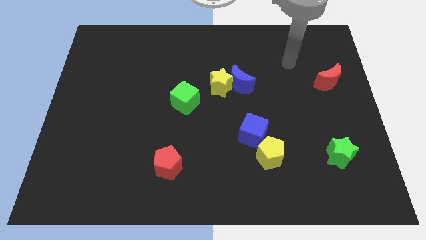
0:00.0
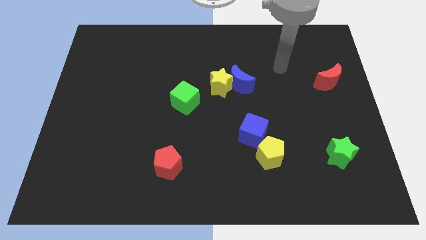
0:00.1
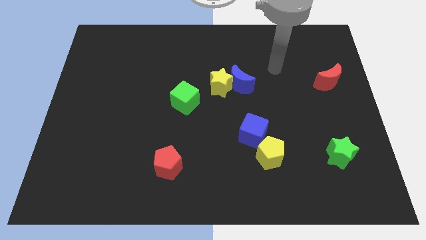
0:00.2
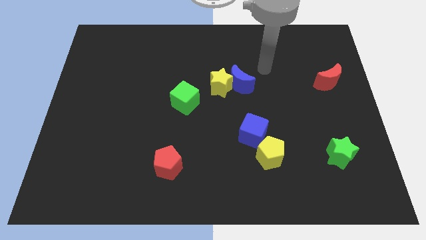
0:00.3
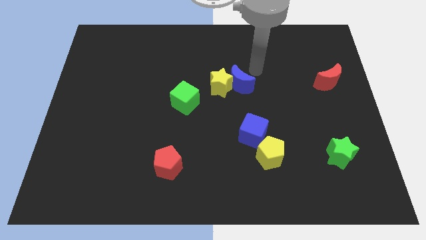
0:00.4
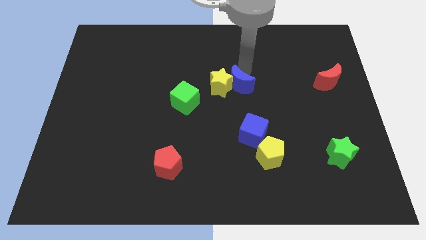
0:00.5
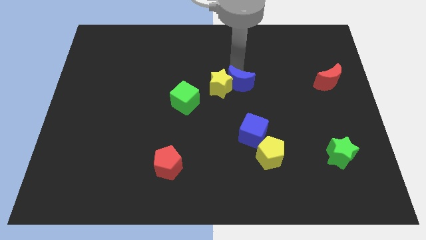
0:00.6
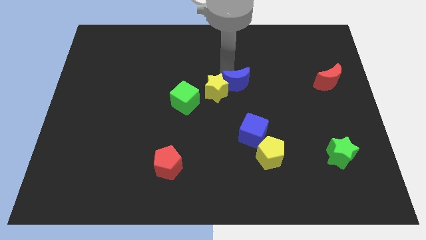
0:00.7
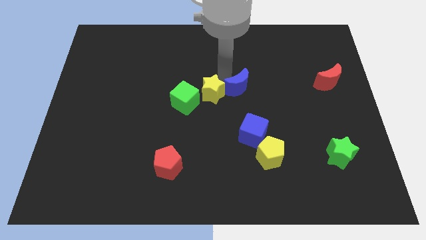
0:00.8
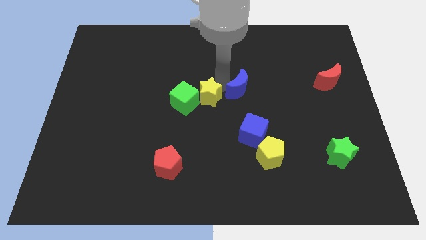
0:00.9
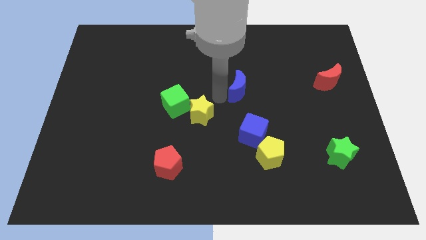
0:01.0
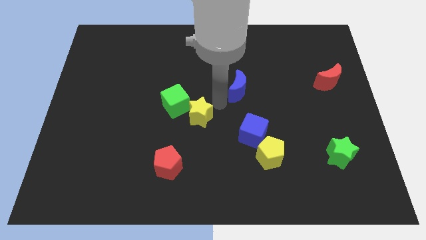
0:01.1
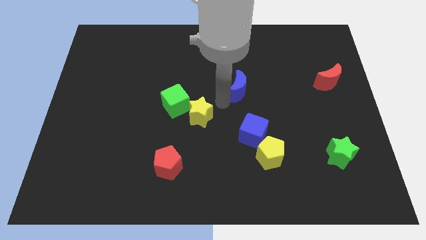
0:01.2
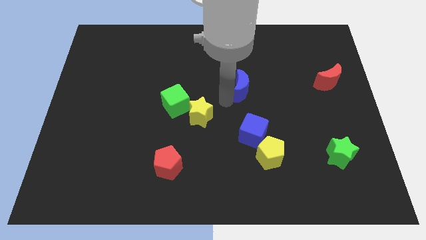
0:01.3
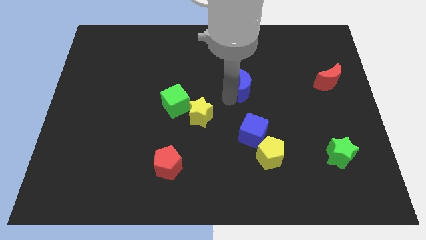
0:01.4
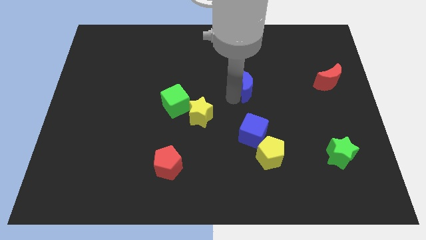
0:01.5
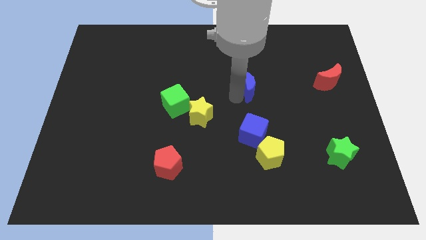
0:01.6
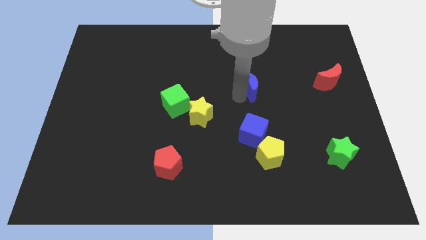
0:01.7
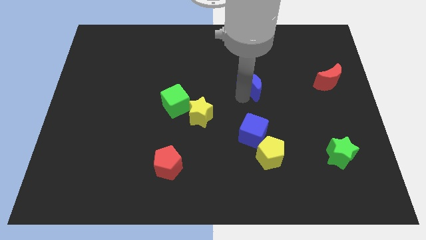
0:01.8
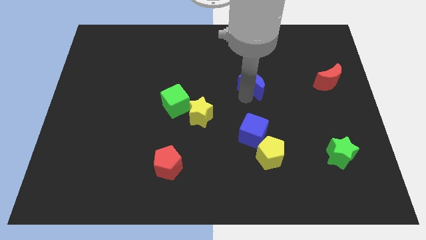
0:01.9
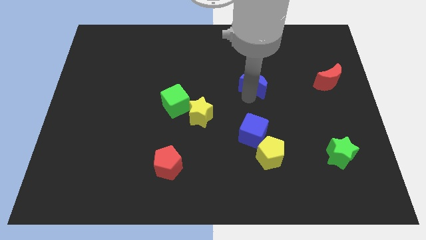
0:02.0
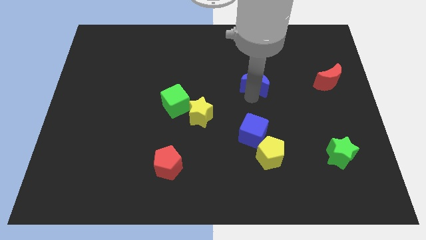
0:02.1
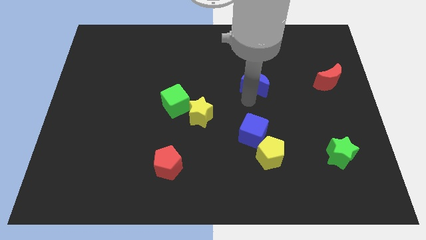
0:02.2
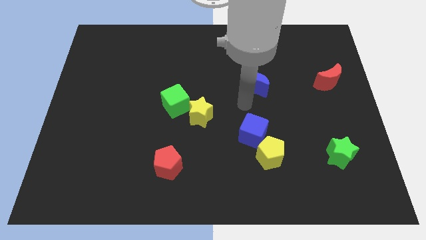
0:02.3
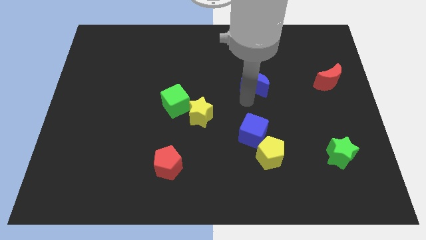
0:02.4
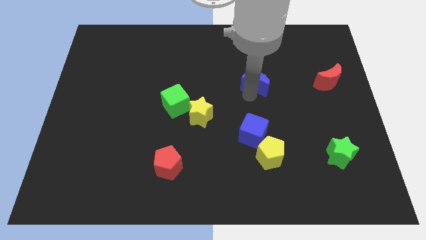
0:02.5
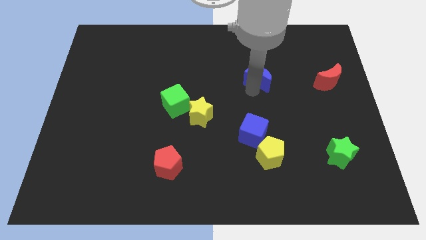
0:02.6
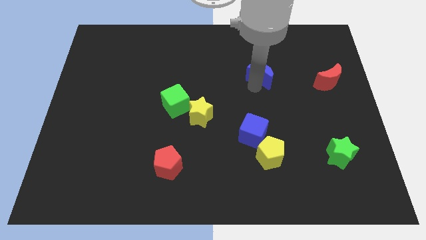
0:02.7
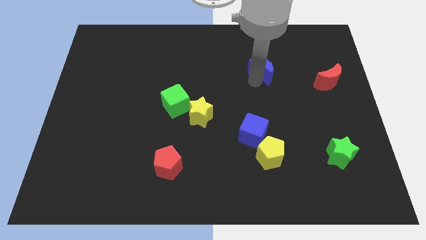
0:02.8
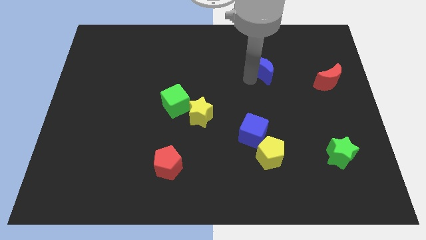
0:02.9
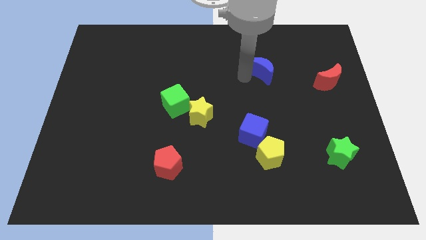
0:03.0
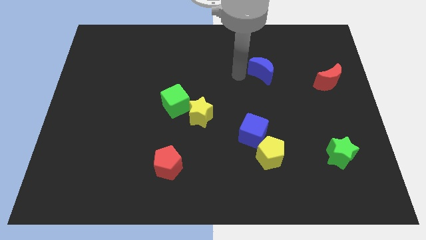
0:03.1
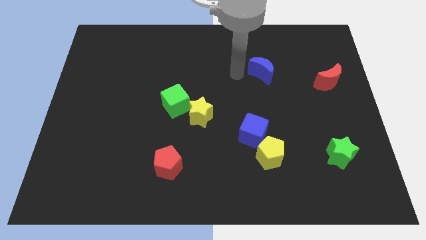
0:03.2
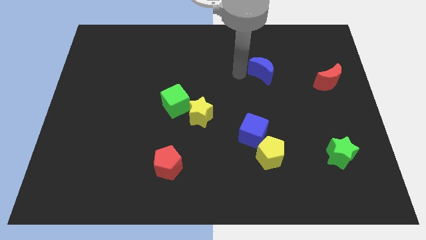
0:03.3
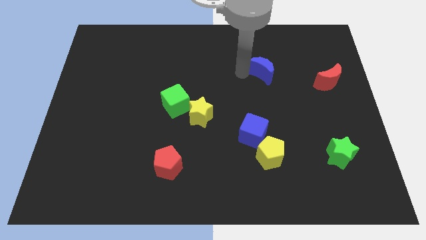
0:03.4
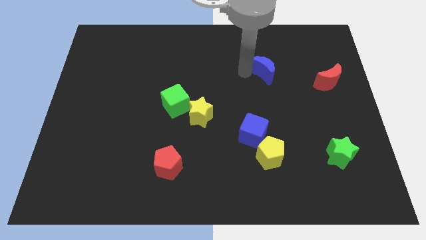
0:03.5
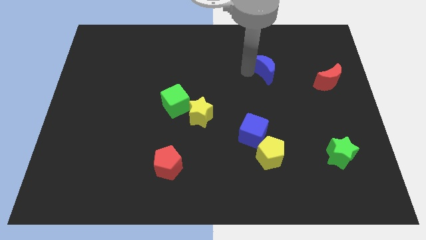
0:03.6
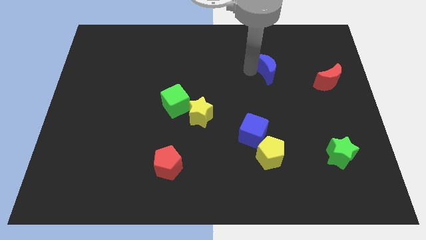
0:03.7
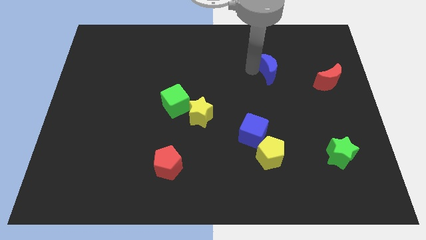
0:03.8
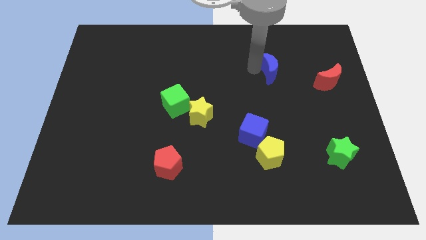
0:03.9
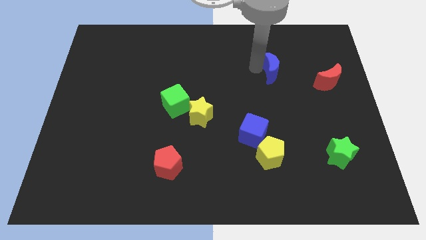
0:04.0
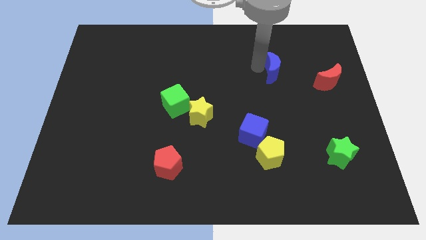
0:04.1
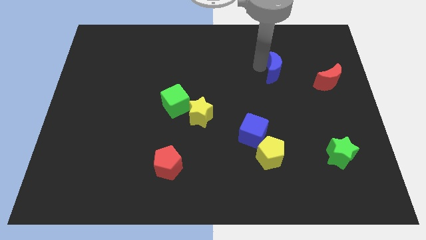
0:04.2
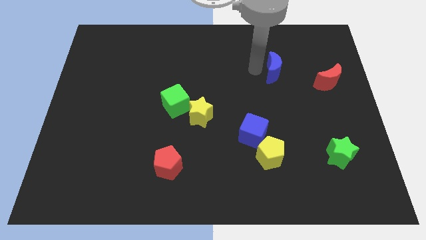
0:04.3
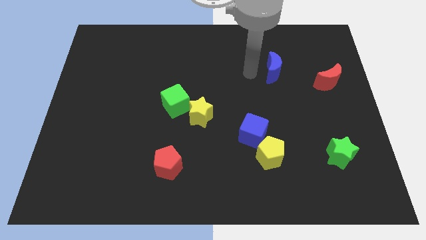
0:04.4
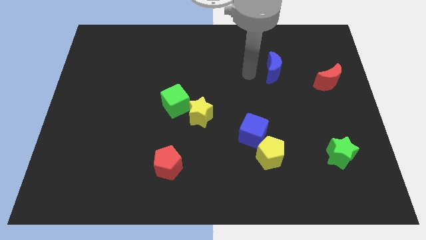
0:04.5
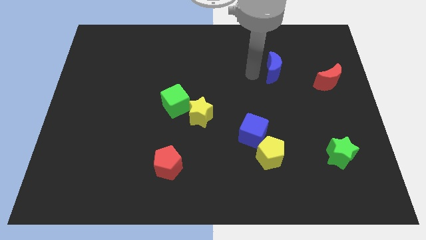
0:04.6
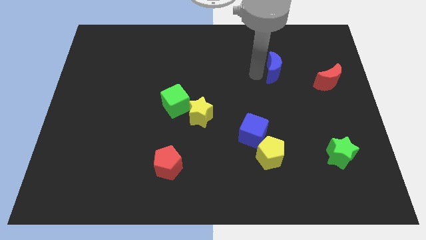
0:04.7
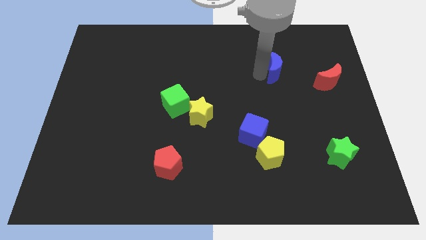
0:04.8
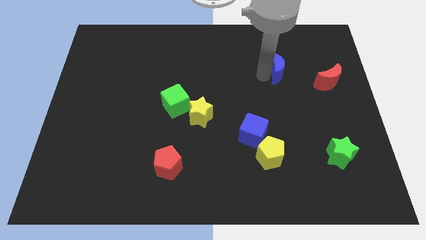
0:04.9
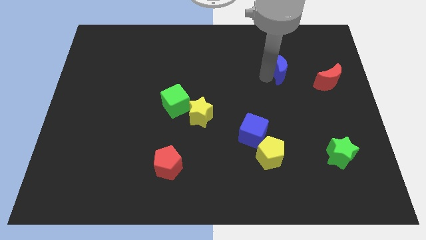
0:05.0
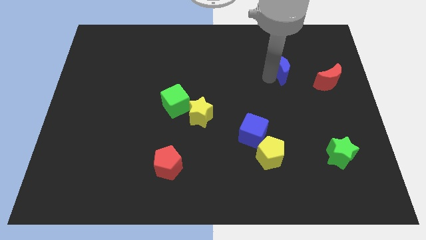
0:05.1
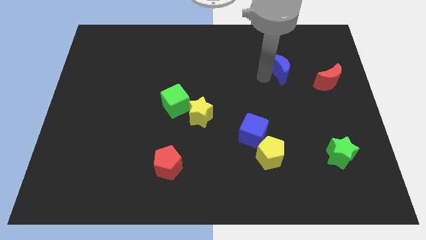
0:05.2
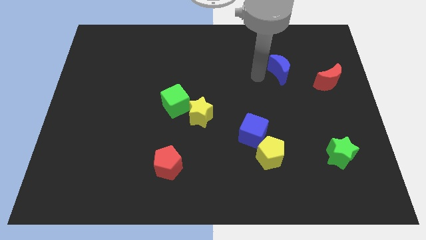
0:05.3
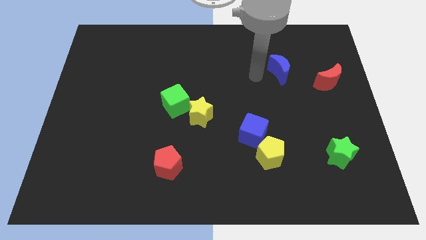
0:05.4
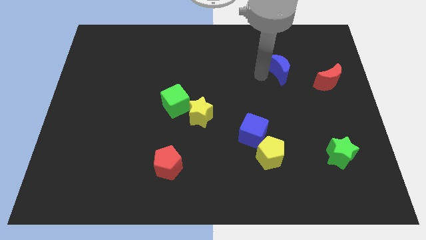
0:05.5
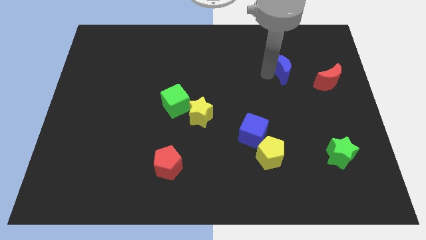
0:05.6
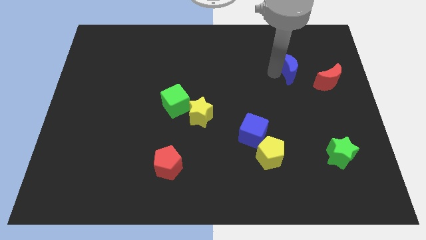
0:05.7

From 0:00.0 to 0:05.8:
put the blue moon to the top left side of the red moon

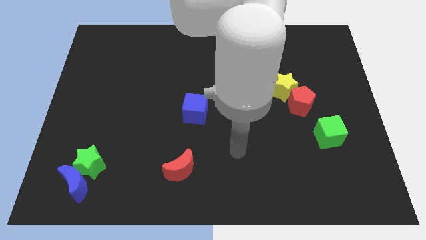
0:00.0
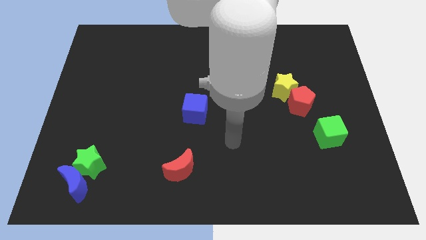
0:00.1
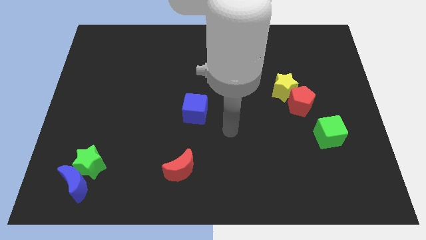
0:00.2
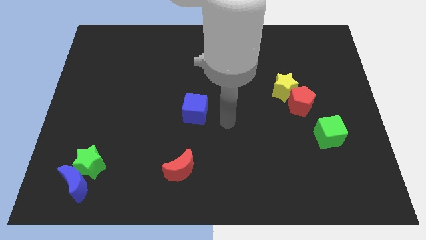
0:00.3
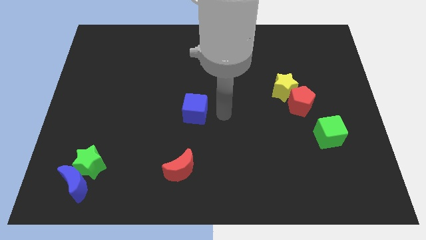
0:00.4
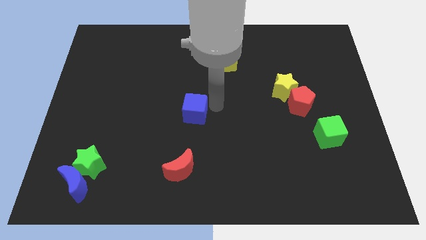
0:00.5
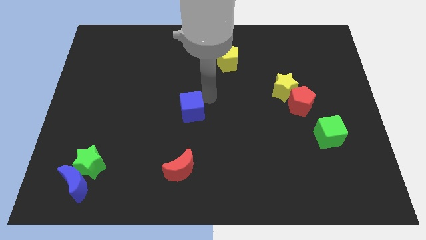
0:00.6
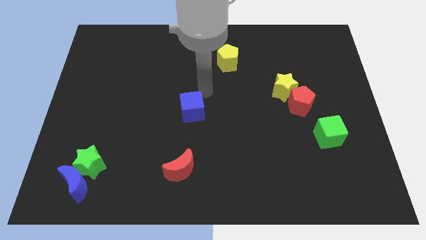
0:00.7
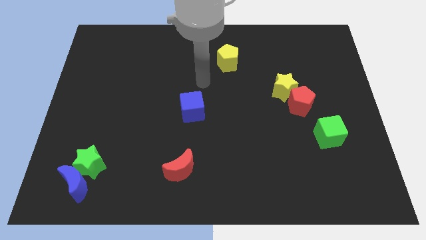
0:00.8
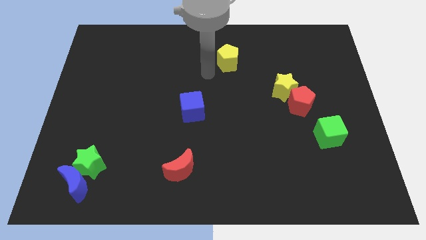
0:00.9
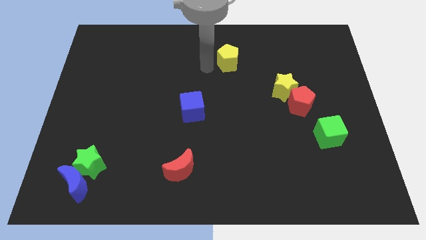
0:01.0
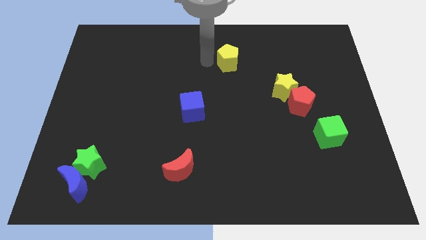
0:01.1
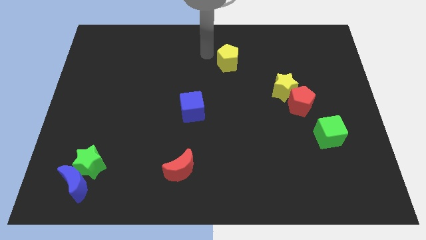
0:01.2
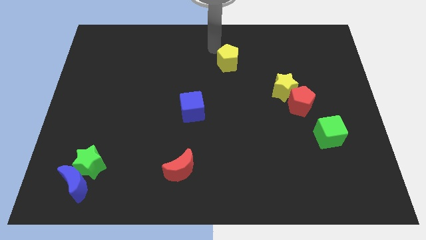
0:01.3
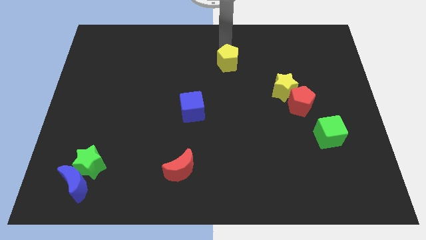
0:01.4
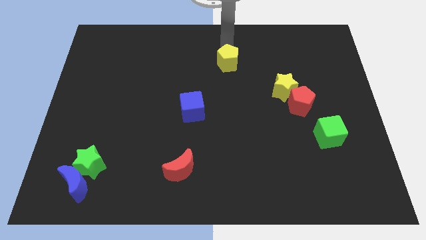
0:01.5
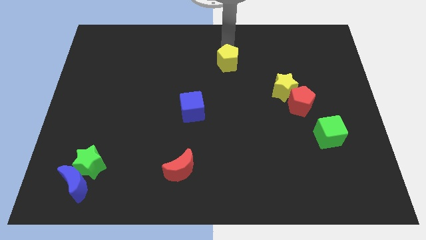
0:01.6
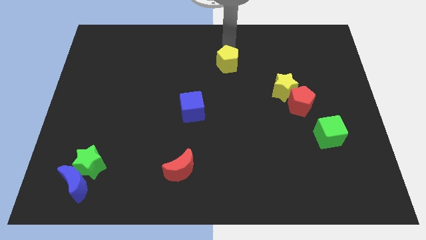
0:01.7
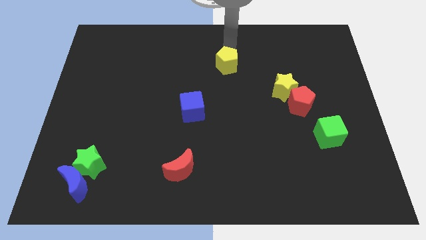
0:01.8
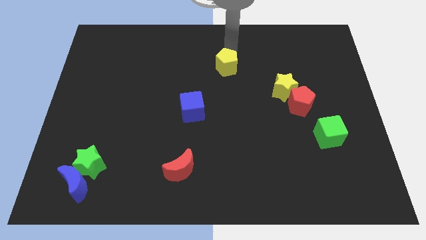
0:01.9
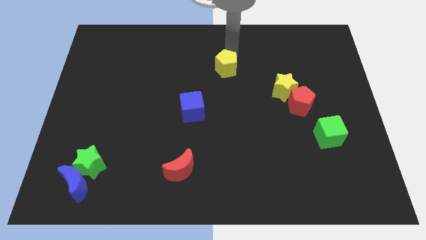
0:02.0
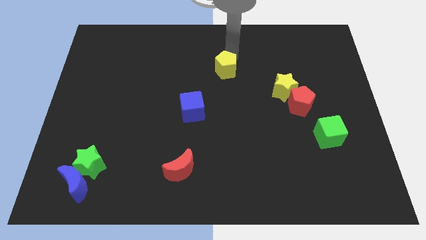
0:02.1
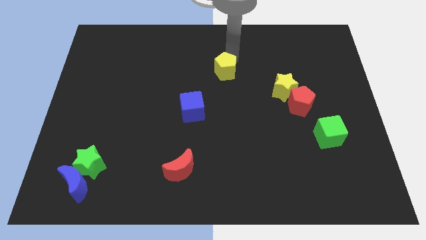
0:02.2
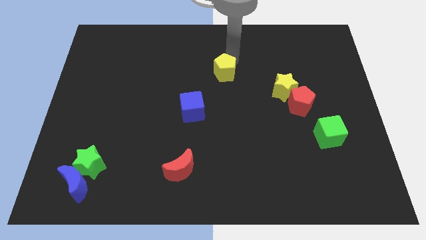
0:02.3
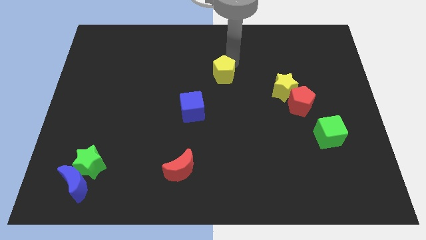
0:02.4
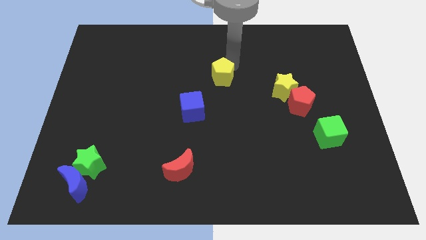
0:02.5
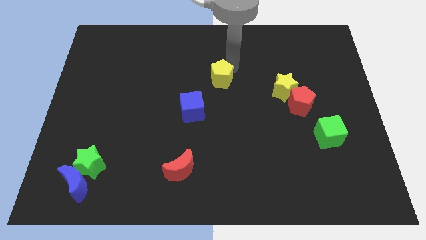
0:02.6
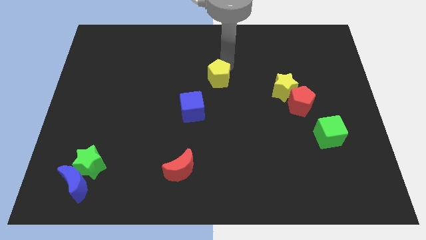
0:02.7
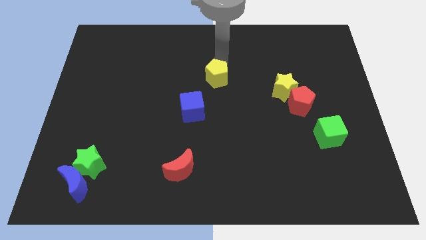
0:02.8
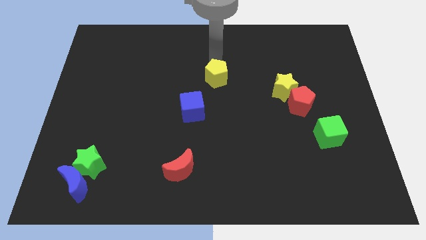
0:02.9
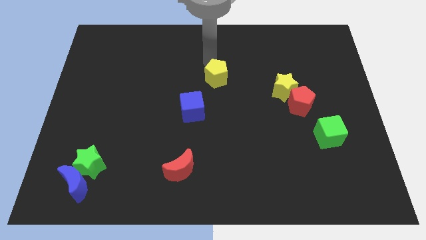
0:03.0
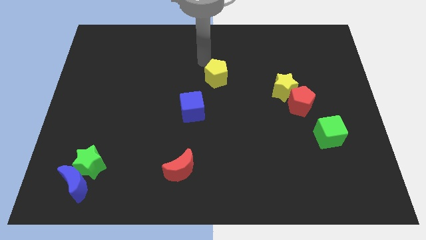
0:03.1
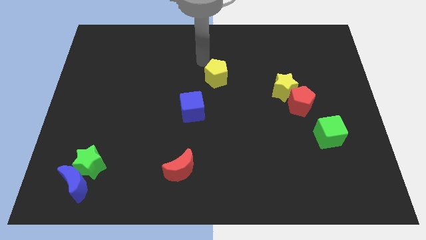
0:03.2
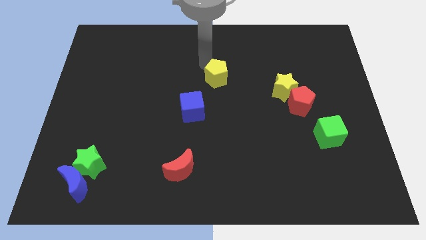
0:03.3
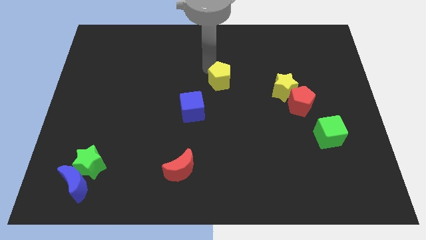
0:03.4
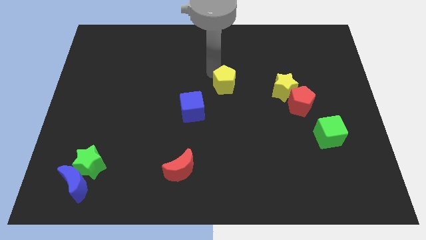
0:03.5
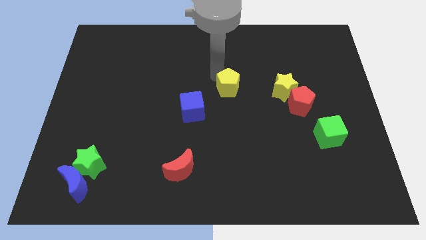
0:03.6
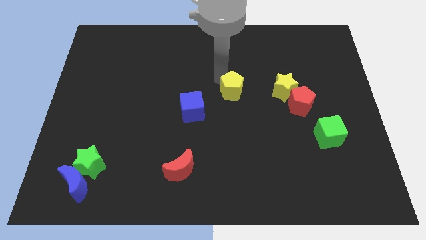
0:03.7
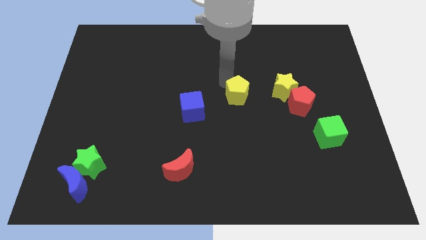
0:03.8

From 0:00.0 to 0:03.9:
move the yellow pentagon to the right side of the blue cube
